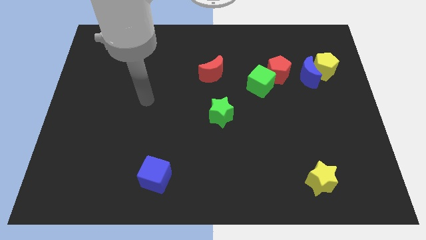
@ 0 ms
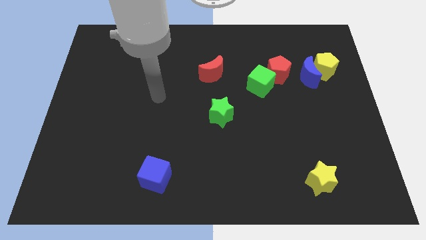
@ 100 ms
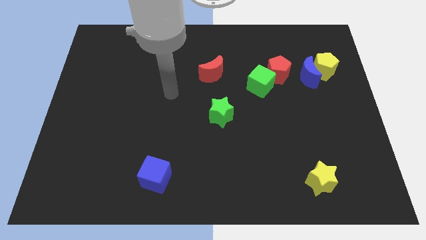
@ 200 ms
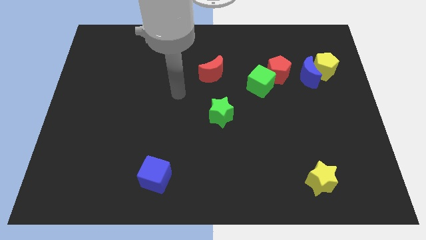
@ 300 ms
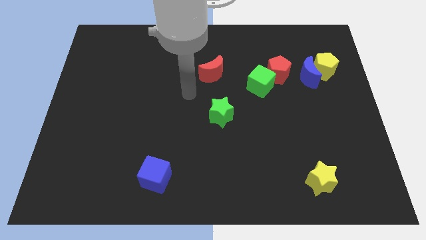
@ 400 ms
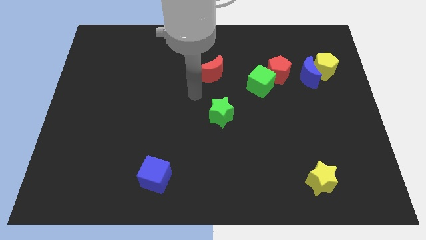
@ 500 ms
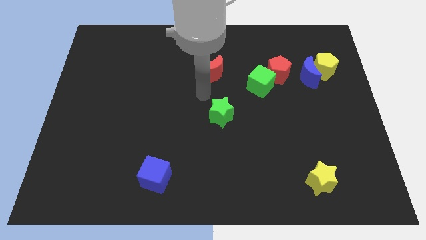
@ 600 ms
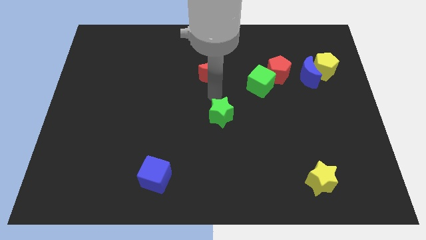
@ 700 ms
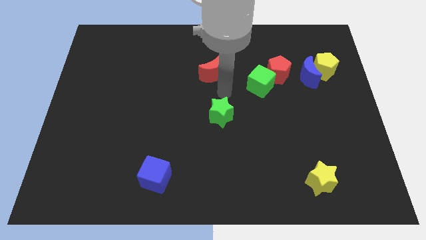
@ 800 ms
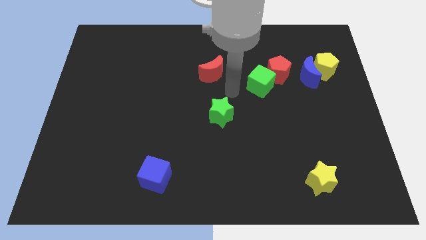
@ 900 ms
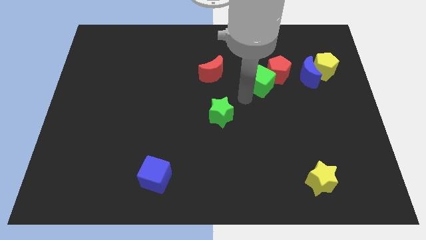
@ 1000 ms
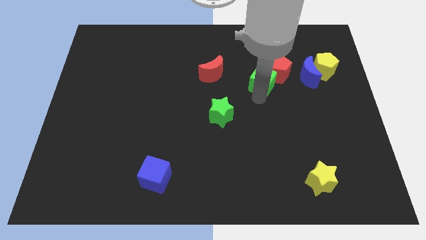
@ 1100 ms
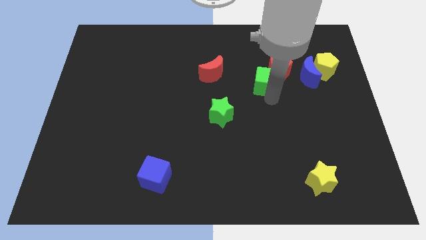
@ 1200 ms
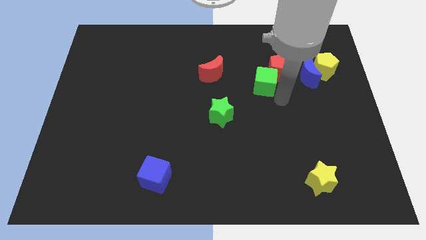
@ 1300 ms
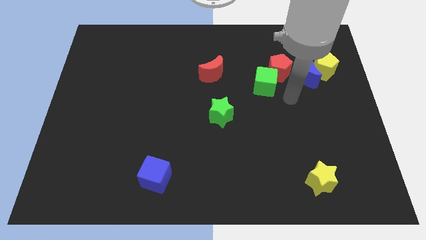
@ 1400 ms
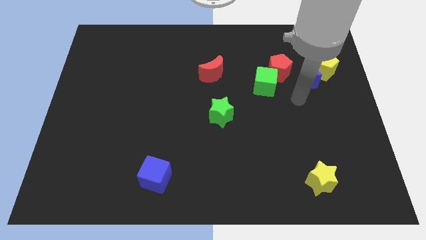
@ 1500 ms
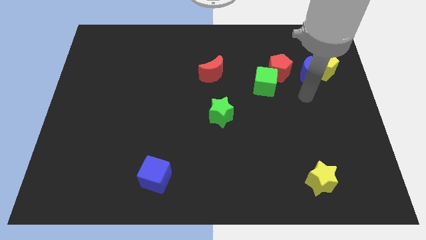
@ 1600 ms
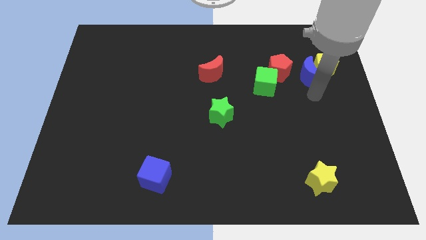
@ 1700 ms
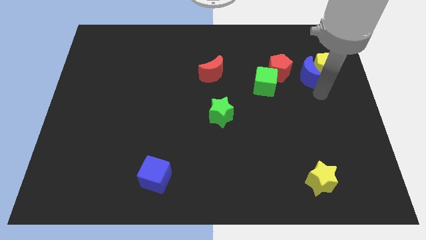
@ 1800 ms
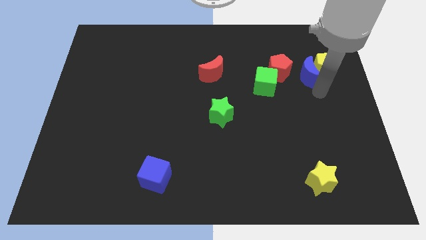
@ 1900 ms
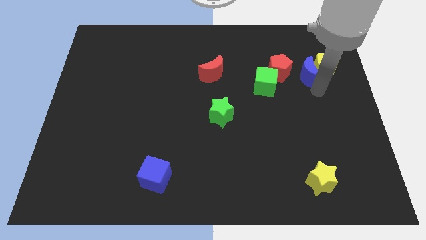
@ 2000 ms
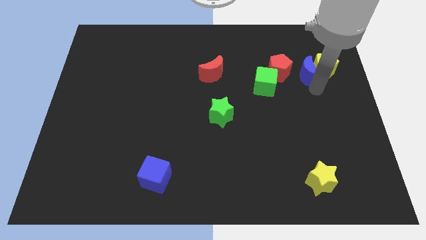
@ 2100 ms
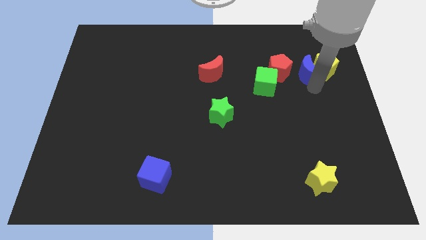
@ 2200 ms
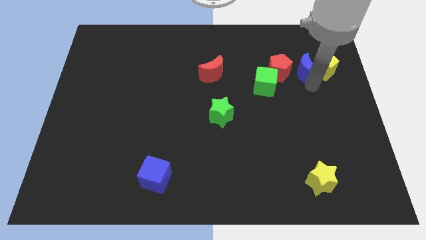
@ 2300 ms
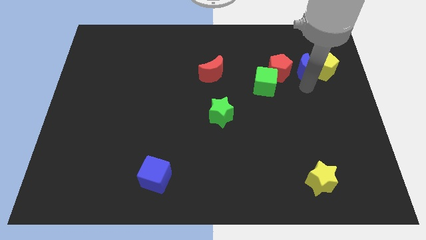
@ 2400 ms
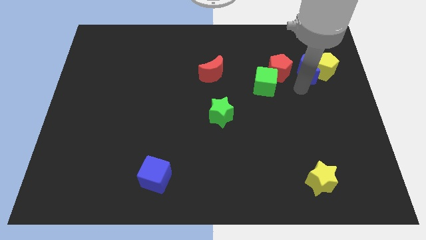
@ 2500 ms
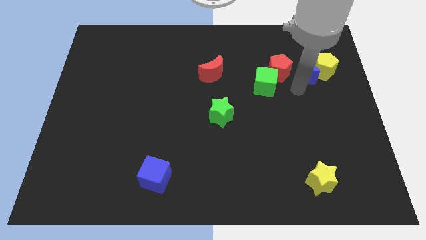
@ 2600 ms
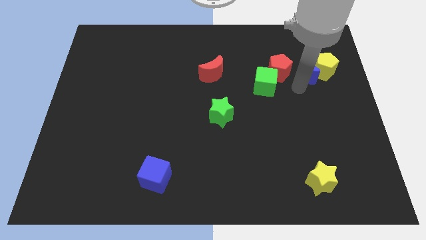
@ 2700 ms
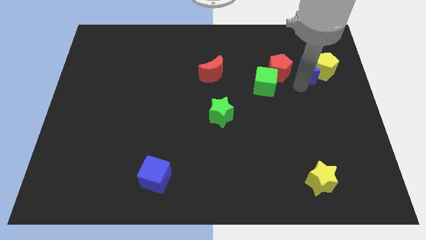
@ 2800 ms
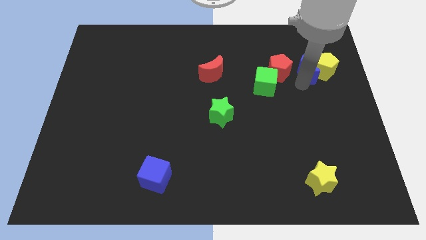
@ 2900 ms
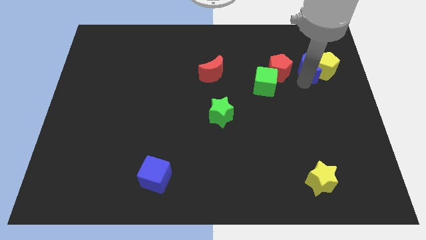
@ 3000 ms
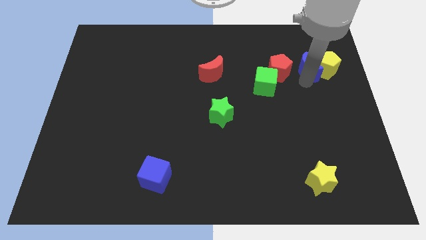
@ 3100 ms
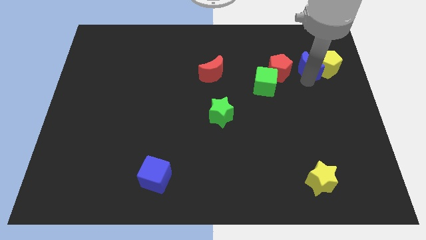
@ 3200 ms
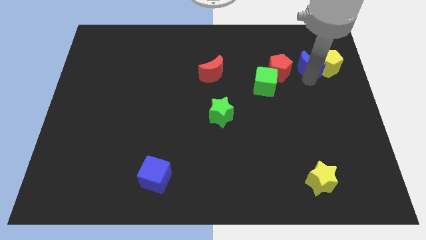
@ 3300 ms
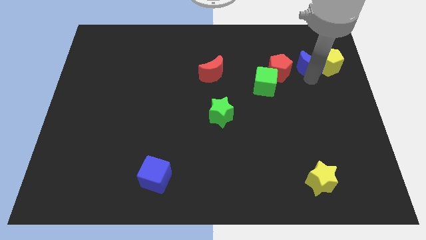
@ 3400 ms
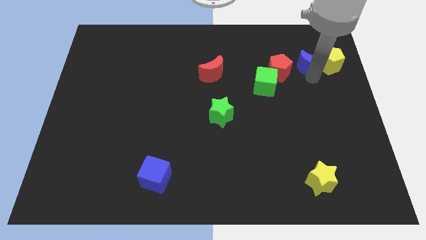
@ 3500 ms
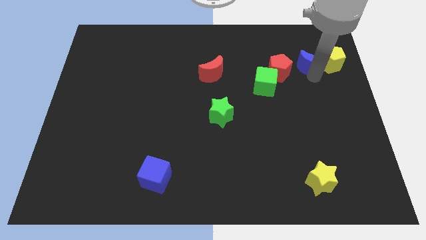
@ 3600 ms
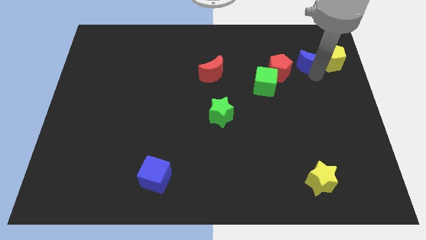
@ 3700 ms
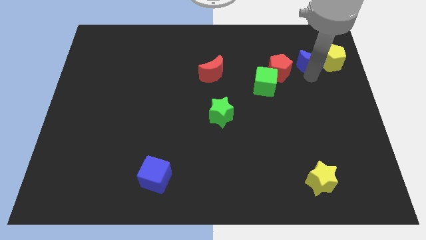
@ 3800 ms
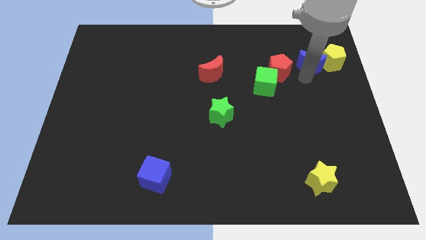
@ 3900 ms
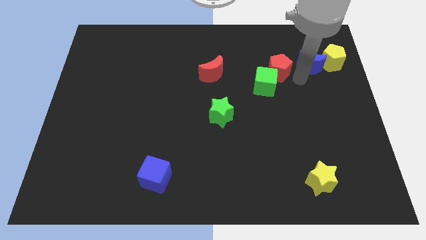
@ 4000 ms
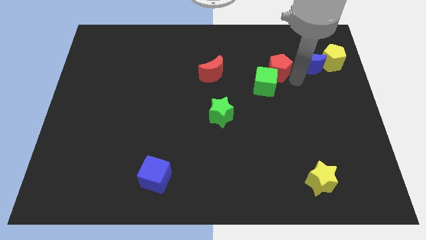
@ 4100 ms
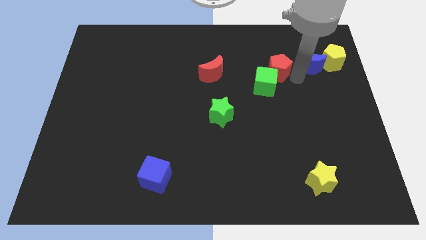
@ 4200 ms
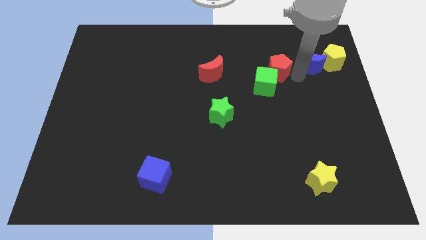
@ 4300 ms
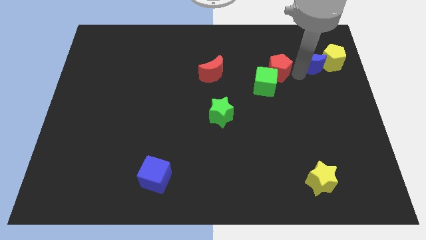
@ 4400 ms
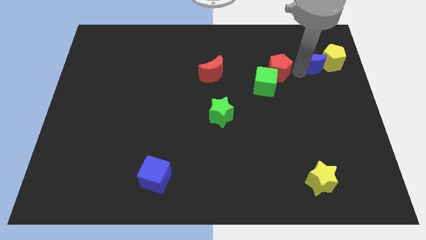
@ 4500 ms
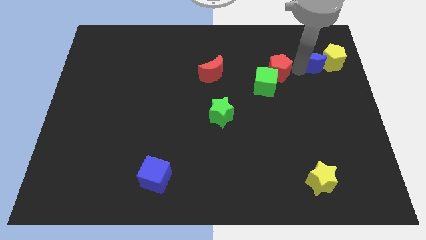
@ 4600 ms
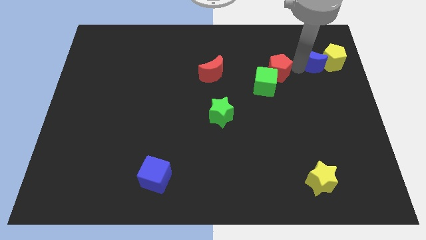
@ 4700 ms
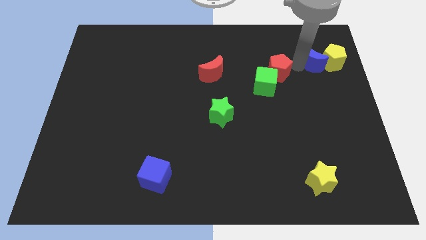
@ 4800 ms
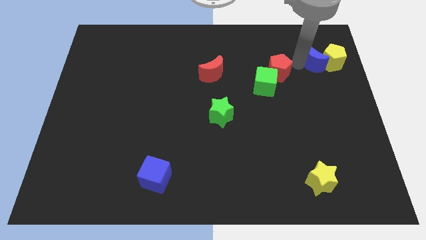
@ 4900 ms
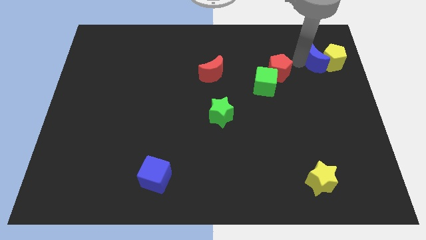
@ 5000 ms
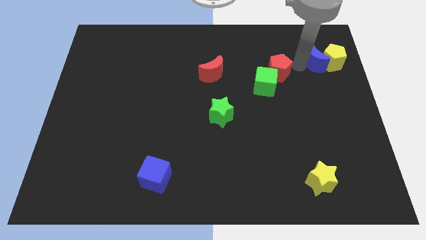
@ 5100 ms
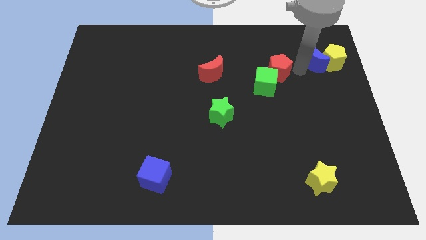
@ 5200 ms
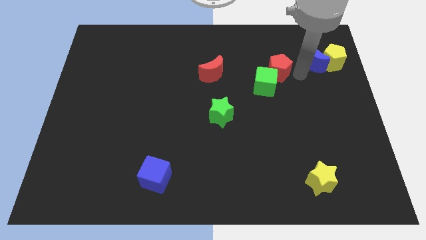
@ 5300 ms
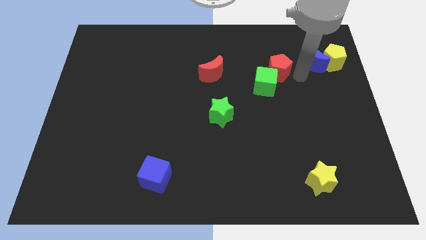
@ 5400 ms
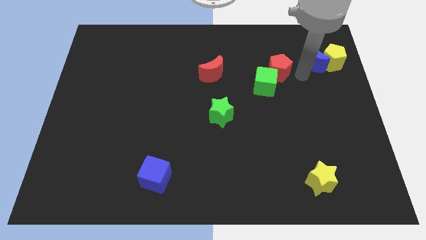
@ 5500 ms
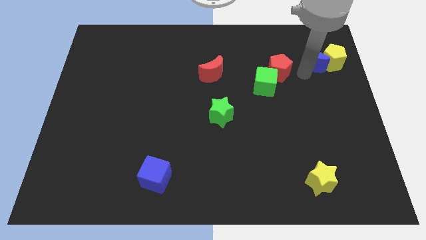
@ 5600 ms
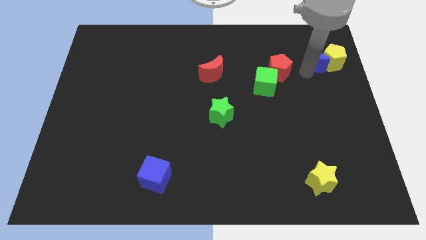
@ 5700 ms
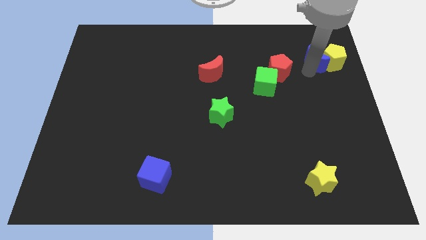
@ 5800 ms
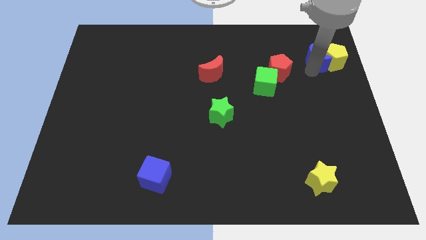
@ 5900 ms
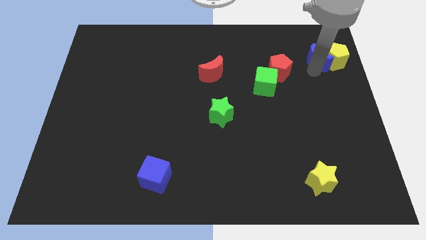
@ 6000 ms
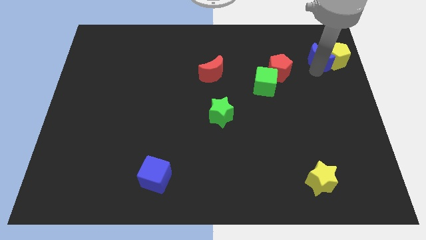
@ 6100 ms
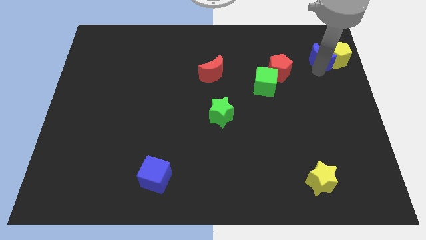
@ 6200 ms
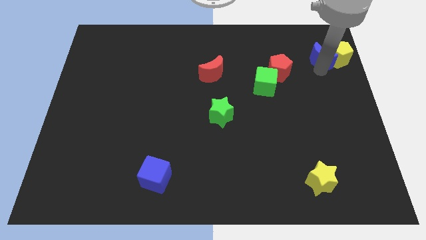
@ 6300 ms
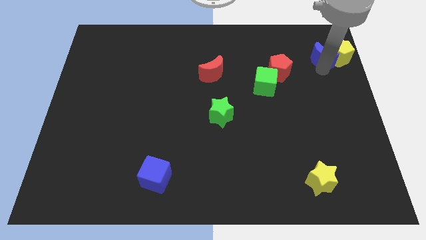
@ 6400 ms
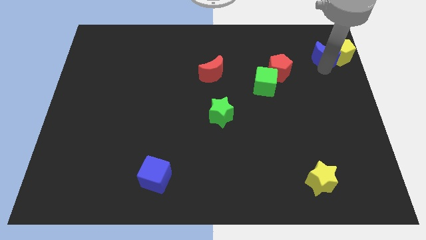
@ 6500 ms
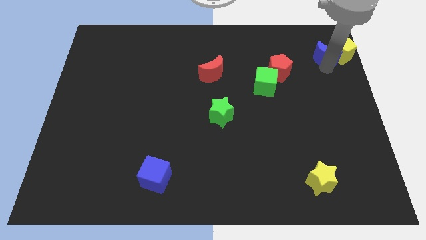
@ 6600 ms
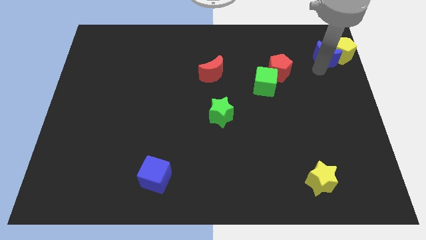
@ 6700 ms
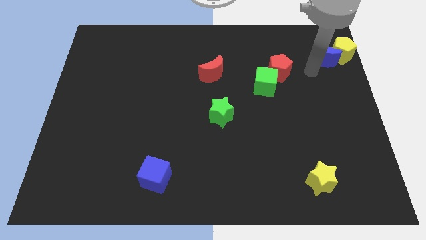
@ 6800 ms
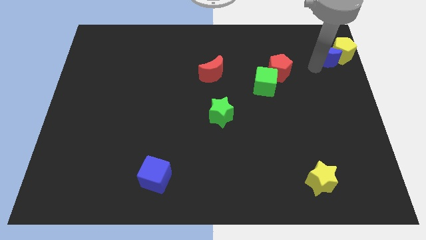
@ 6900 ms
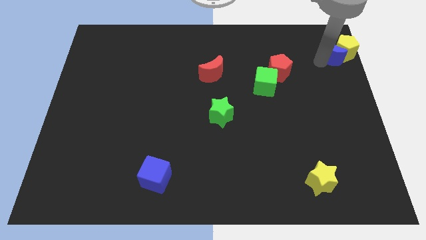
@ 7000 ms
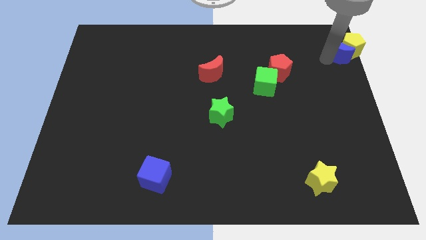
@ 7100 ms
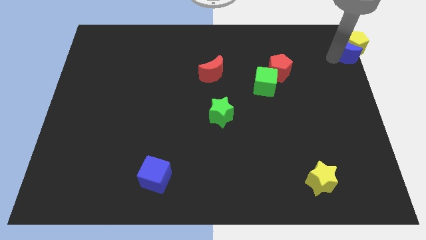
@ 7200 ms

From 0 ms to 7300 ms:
put the blue moon to the top right of the board

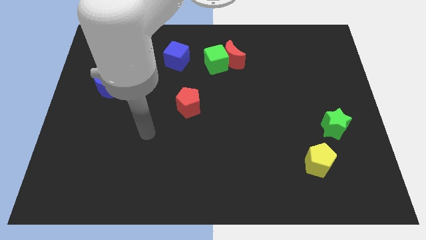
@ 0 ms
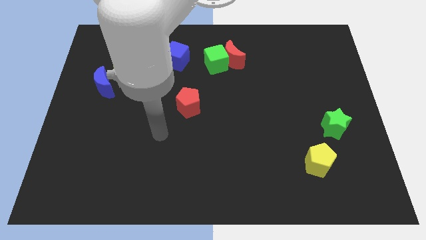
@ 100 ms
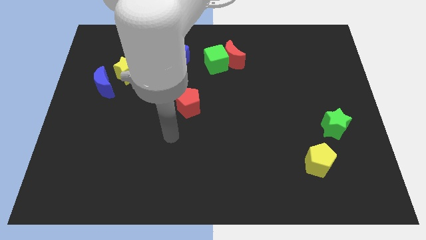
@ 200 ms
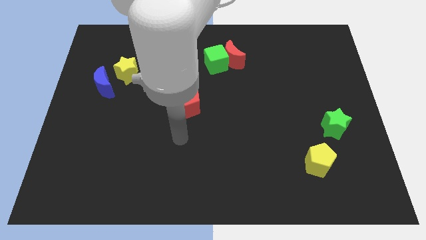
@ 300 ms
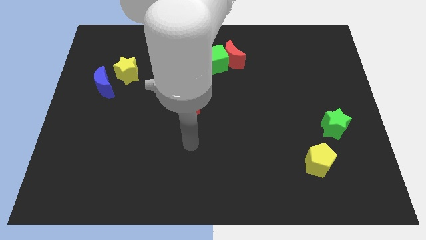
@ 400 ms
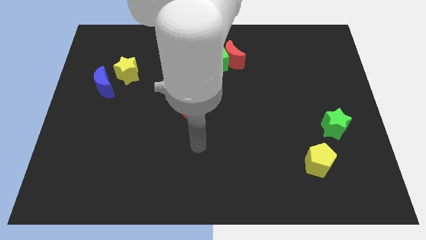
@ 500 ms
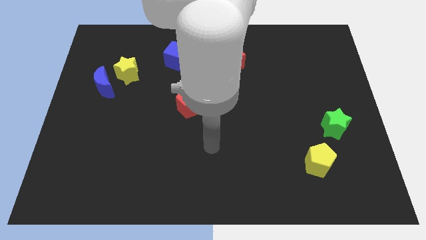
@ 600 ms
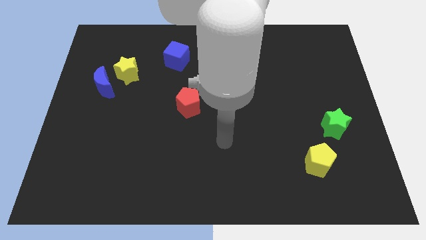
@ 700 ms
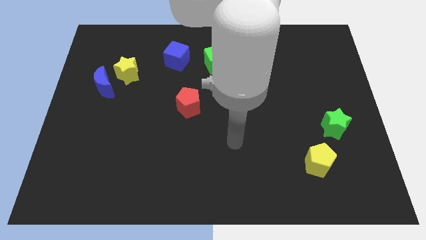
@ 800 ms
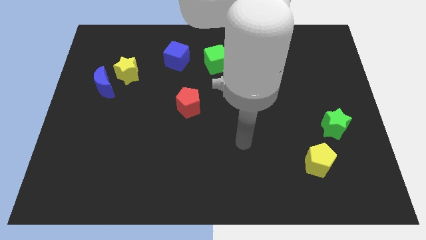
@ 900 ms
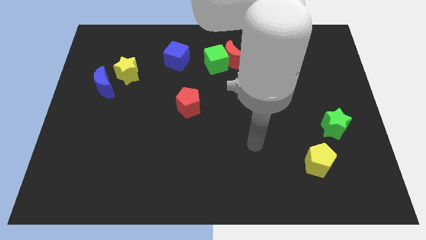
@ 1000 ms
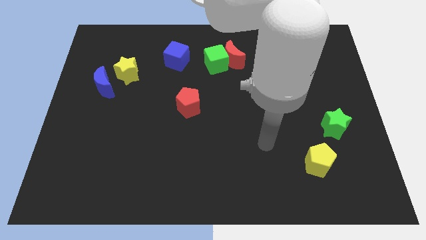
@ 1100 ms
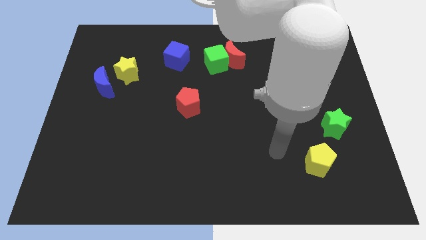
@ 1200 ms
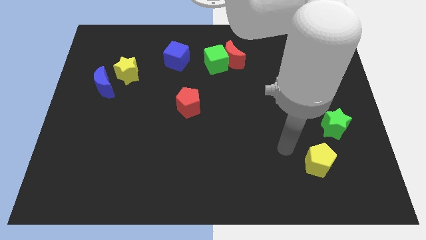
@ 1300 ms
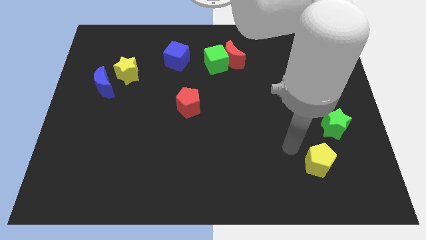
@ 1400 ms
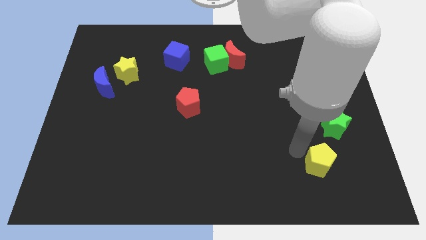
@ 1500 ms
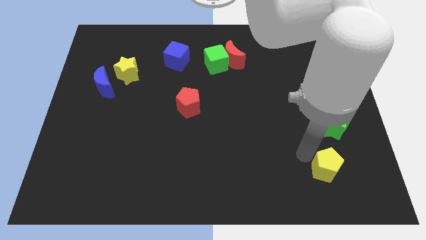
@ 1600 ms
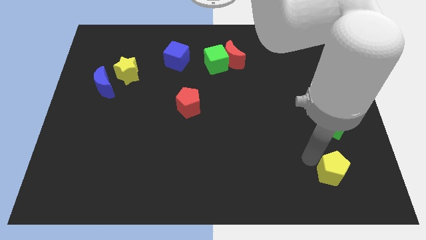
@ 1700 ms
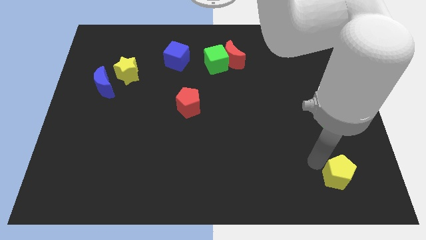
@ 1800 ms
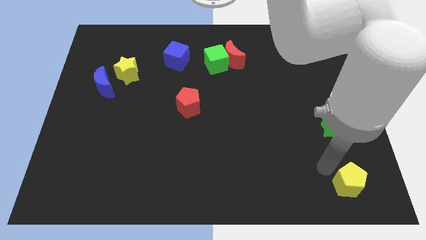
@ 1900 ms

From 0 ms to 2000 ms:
push the yellow pentagon to the bottom right corner
